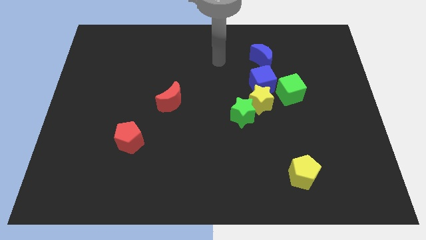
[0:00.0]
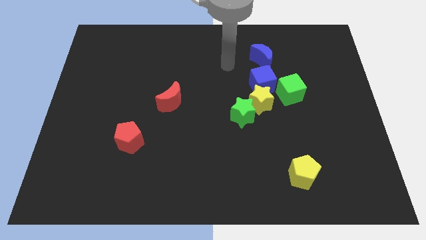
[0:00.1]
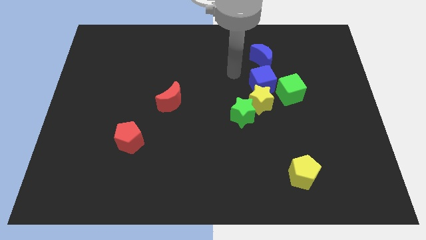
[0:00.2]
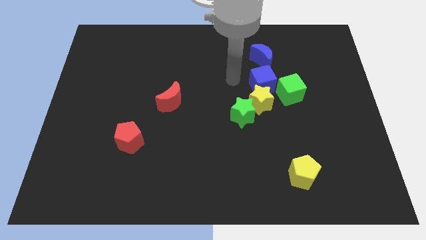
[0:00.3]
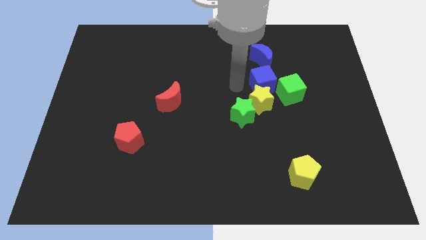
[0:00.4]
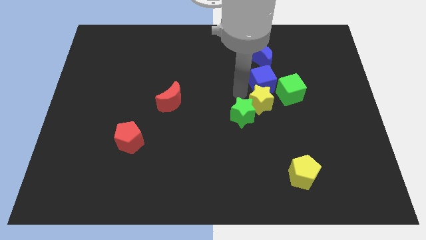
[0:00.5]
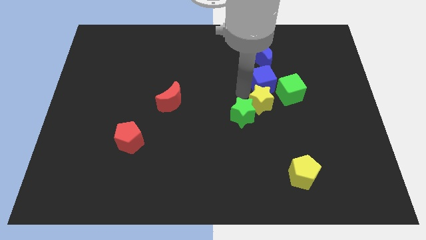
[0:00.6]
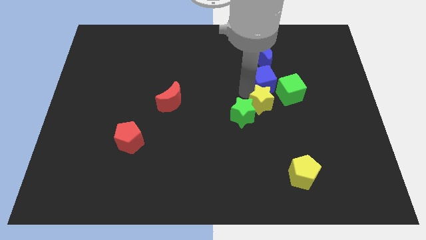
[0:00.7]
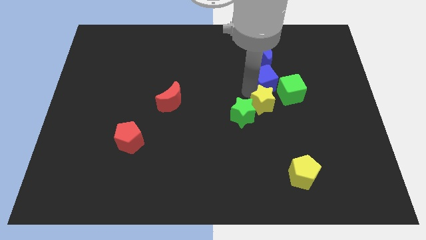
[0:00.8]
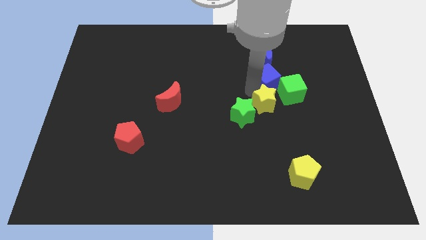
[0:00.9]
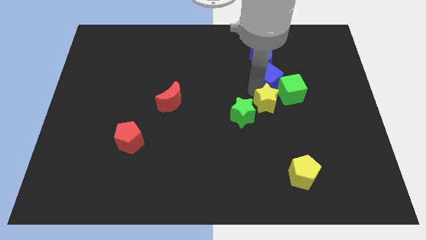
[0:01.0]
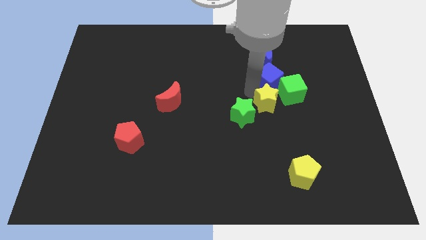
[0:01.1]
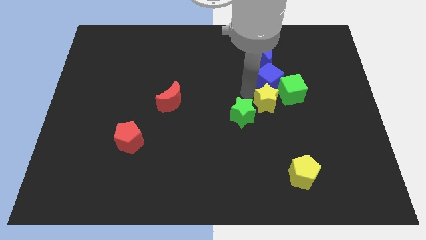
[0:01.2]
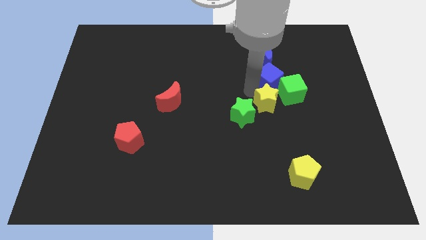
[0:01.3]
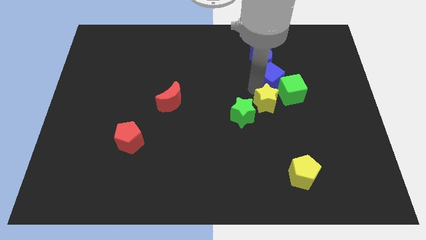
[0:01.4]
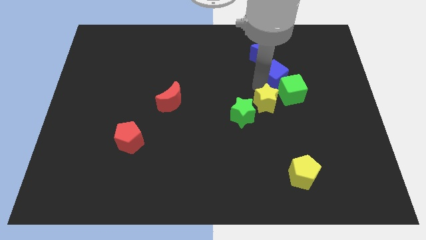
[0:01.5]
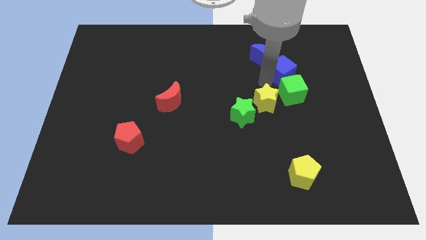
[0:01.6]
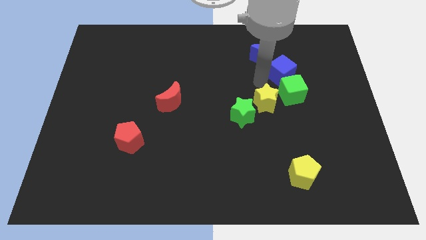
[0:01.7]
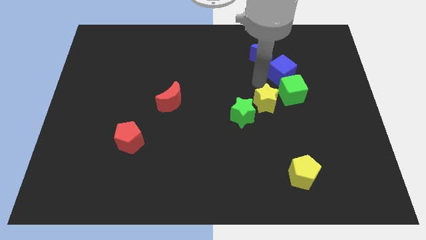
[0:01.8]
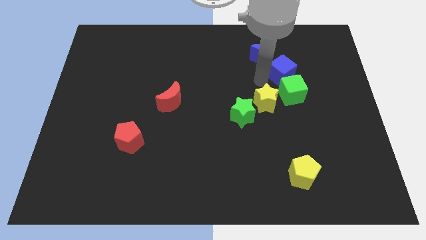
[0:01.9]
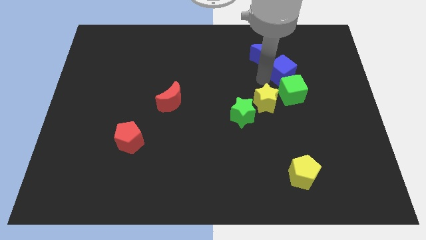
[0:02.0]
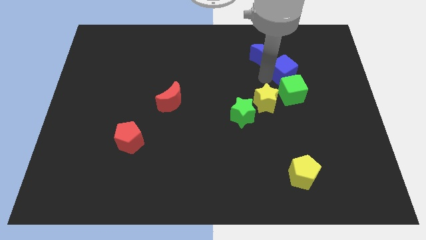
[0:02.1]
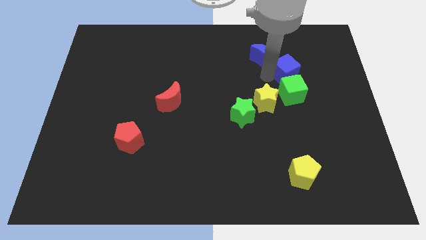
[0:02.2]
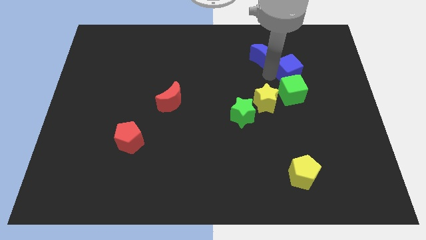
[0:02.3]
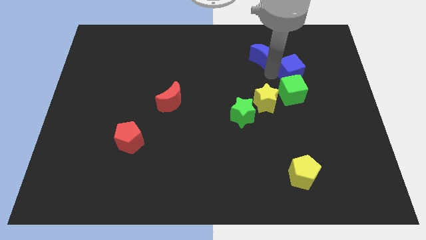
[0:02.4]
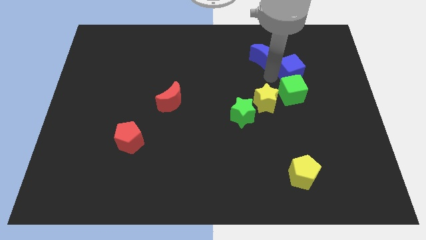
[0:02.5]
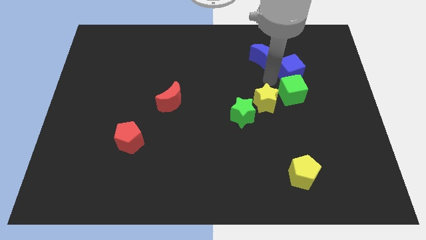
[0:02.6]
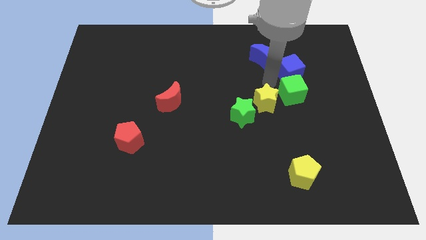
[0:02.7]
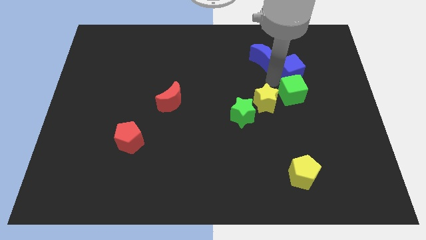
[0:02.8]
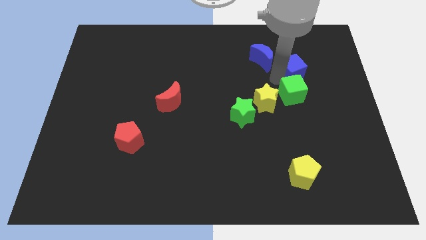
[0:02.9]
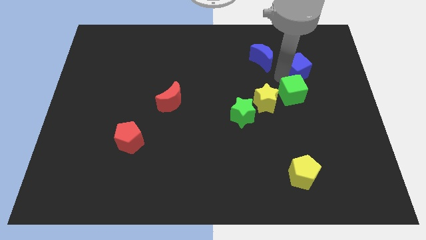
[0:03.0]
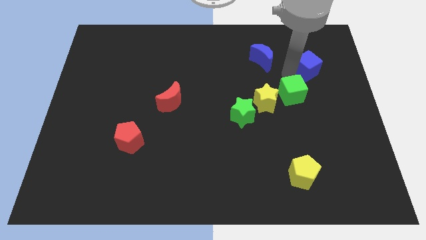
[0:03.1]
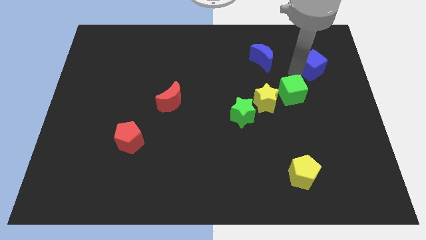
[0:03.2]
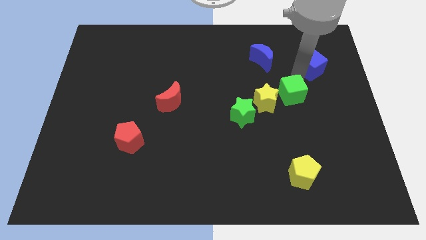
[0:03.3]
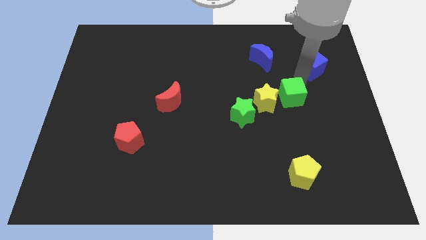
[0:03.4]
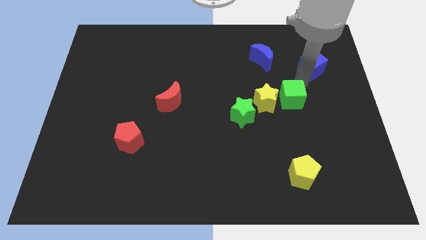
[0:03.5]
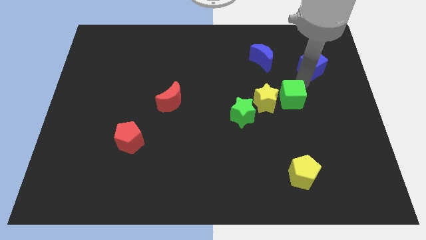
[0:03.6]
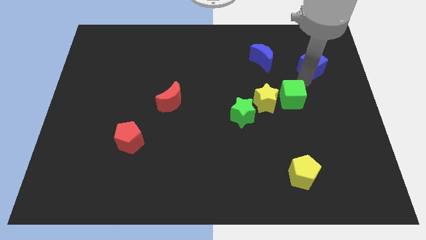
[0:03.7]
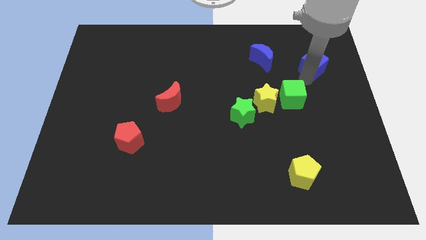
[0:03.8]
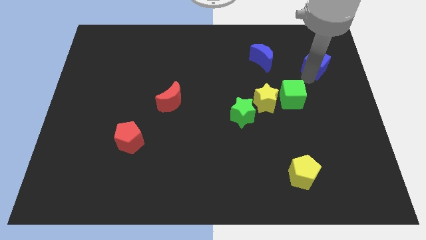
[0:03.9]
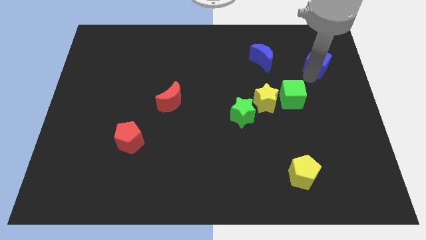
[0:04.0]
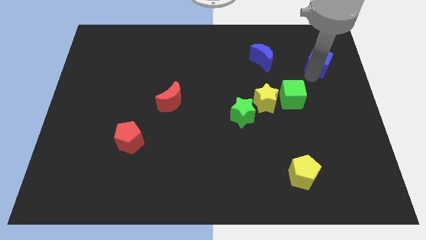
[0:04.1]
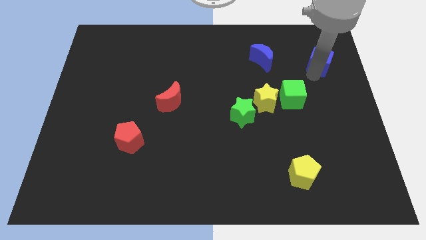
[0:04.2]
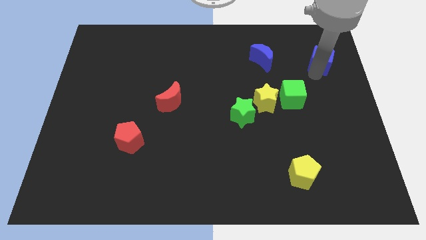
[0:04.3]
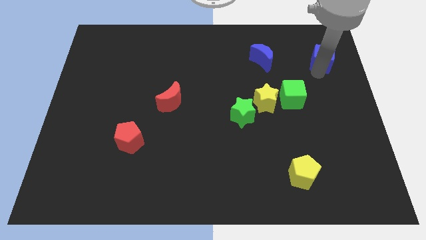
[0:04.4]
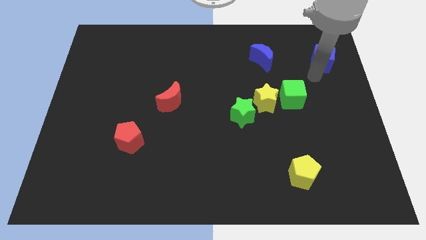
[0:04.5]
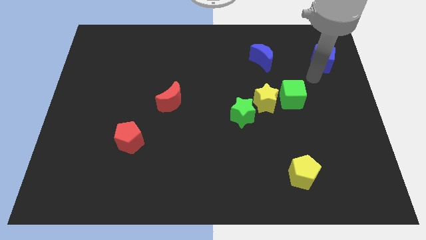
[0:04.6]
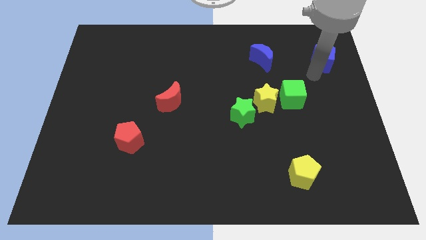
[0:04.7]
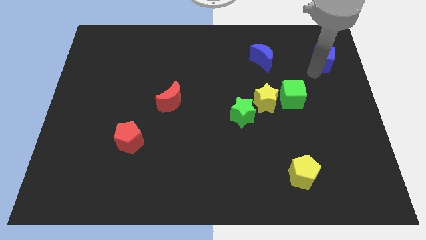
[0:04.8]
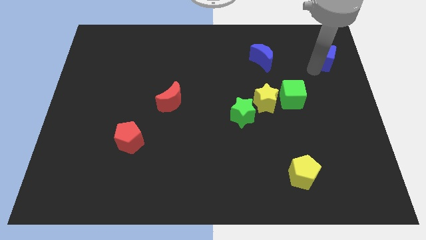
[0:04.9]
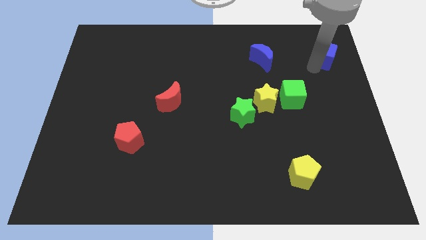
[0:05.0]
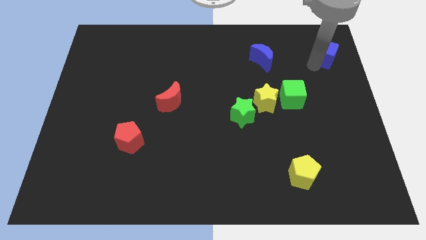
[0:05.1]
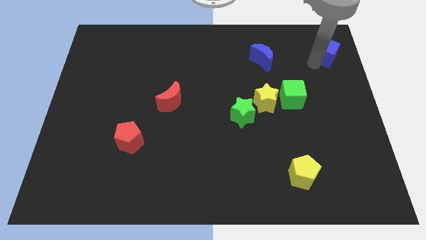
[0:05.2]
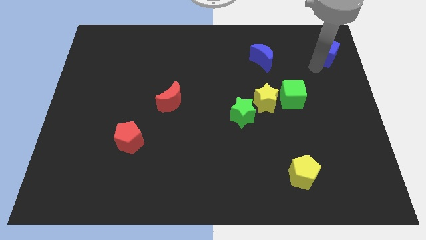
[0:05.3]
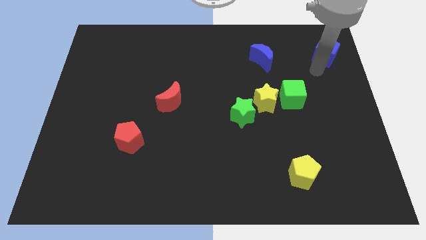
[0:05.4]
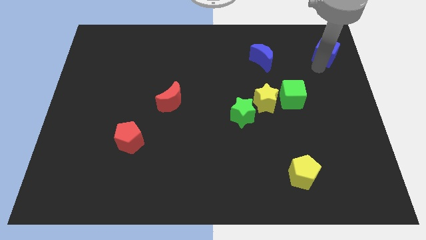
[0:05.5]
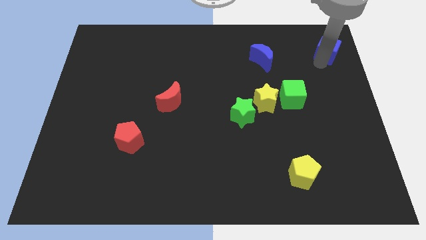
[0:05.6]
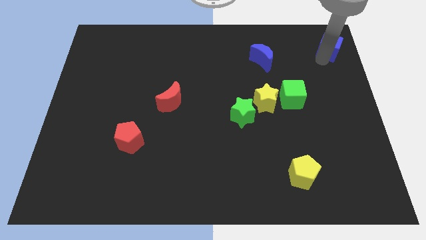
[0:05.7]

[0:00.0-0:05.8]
put the blue cube to the top right
